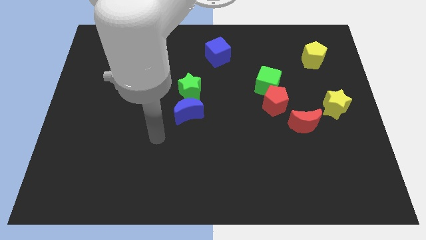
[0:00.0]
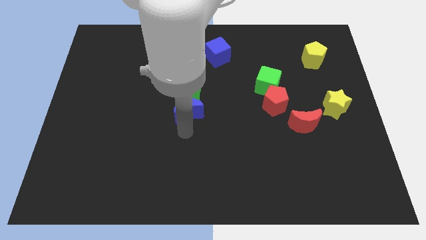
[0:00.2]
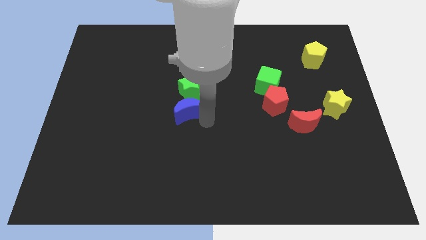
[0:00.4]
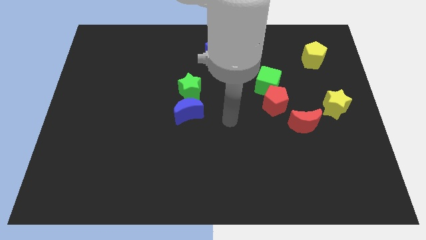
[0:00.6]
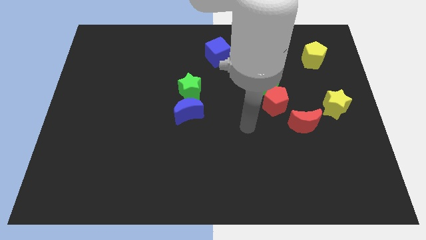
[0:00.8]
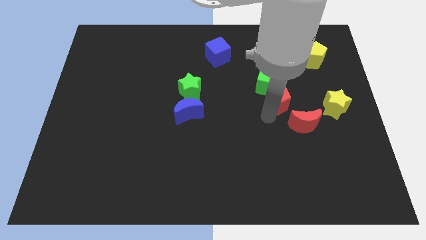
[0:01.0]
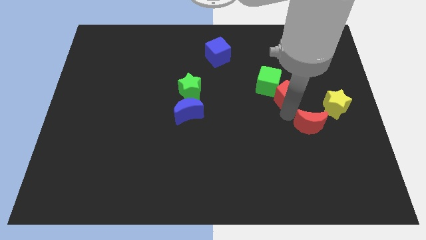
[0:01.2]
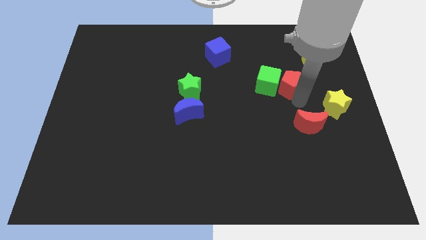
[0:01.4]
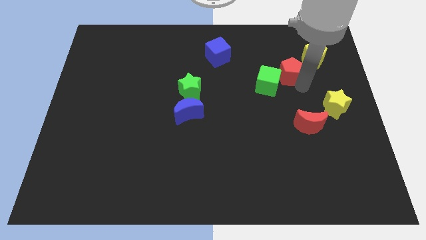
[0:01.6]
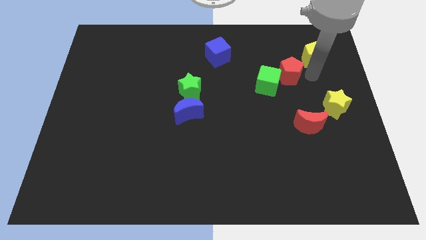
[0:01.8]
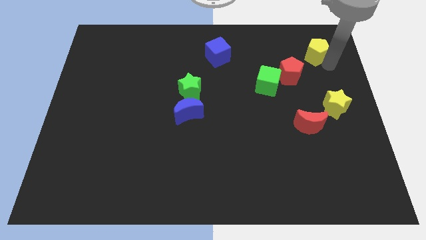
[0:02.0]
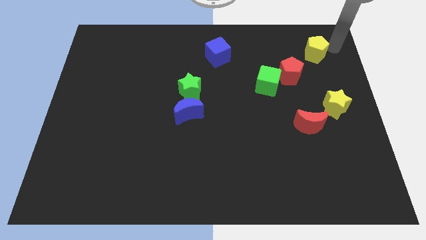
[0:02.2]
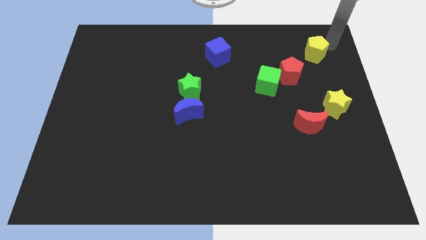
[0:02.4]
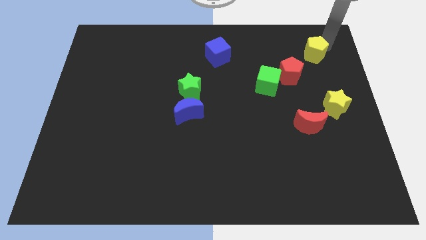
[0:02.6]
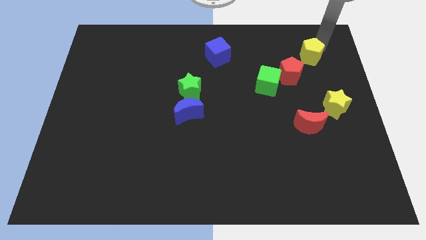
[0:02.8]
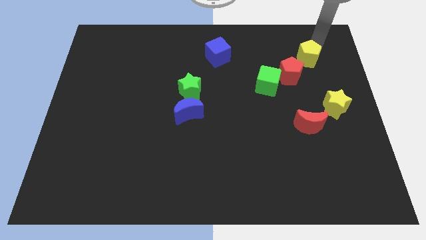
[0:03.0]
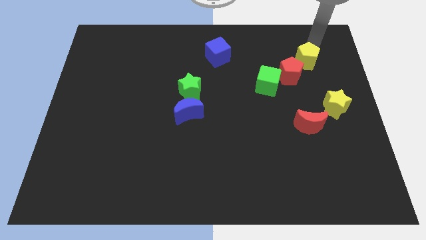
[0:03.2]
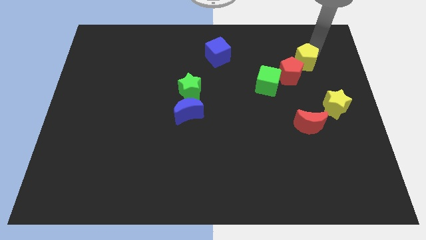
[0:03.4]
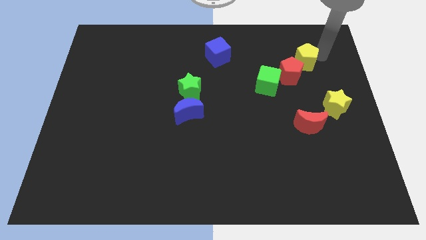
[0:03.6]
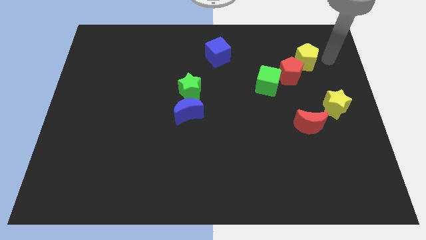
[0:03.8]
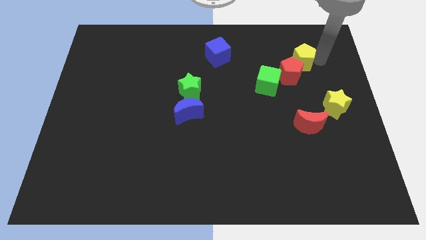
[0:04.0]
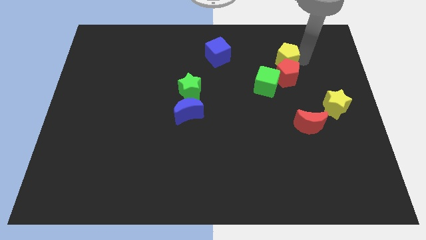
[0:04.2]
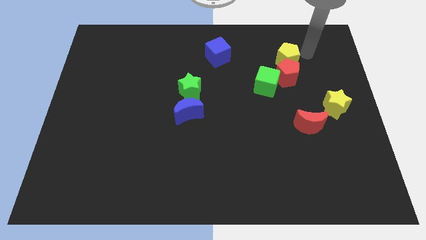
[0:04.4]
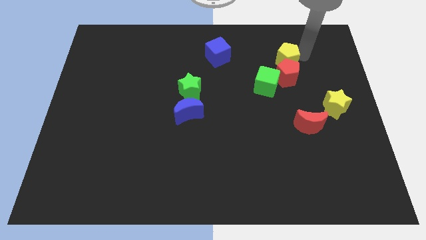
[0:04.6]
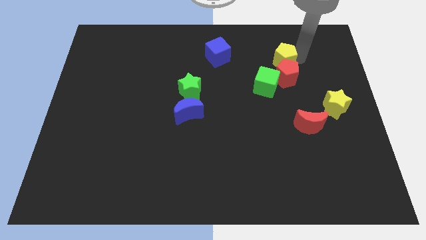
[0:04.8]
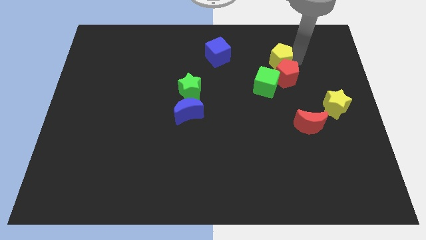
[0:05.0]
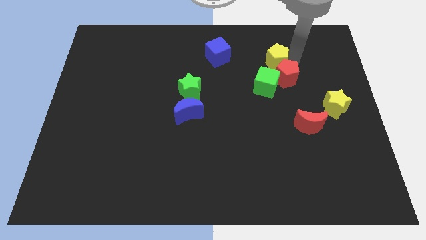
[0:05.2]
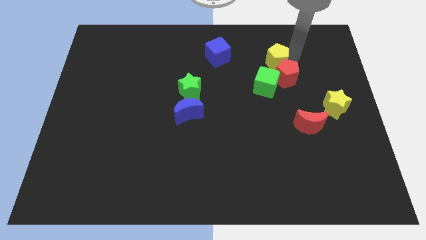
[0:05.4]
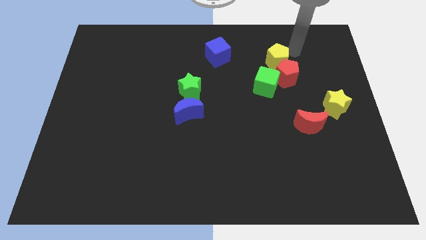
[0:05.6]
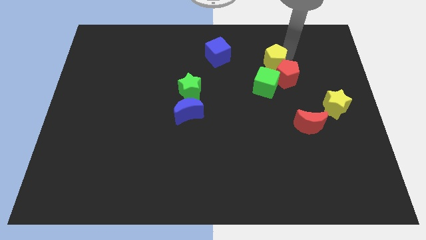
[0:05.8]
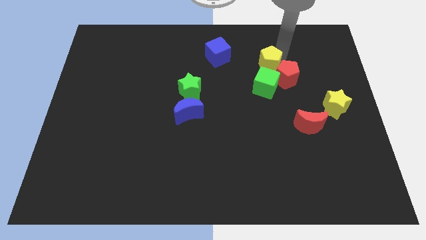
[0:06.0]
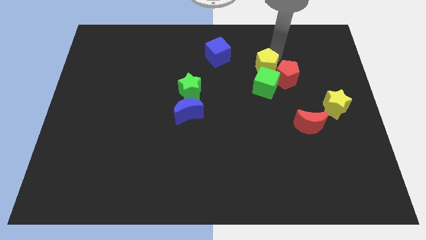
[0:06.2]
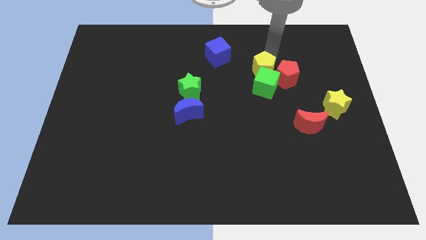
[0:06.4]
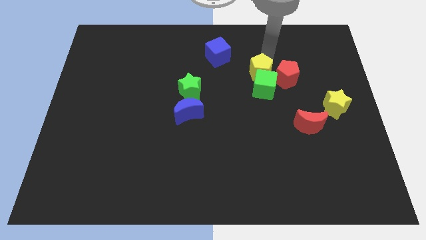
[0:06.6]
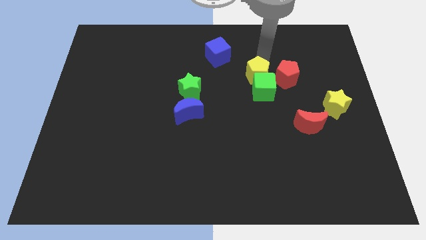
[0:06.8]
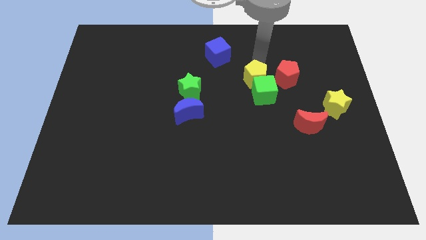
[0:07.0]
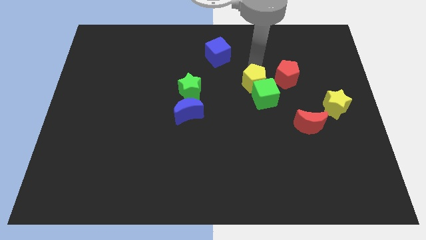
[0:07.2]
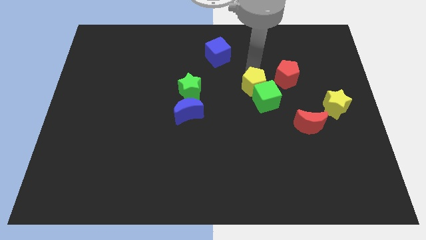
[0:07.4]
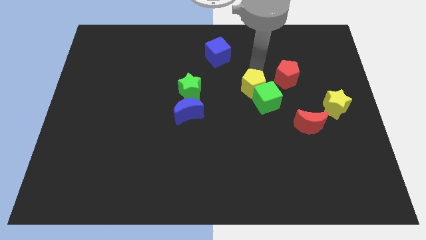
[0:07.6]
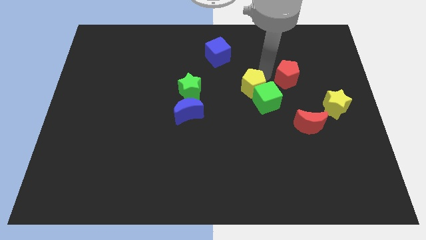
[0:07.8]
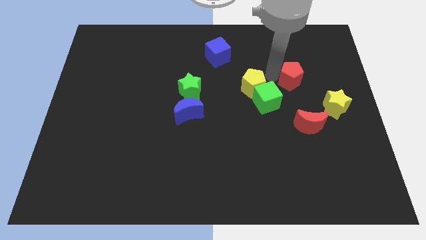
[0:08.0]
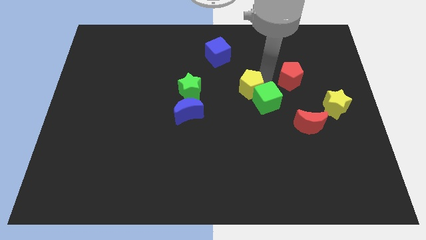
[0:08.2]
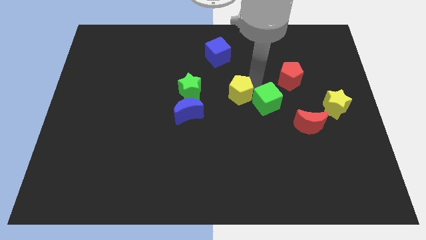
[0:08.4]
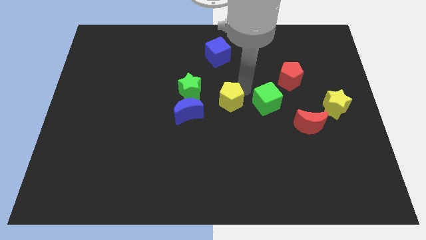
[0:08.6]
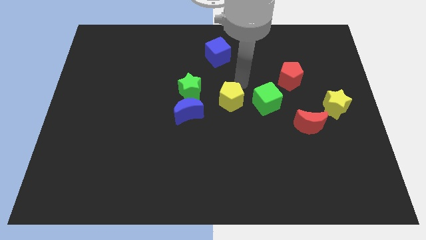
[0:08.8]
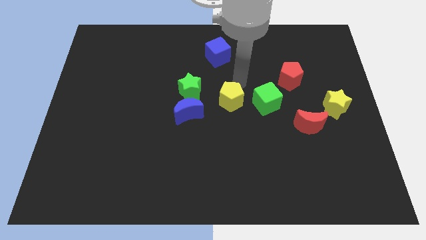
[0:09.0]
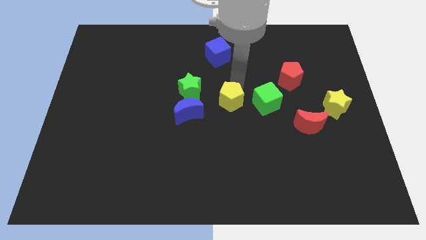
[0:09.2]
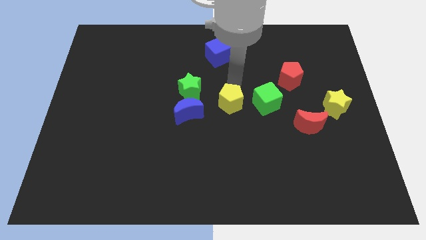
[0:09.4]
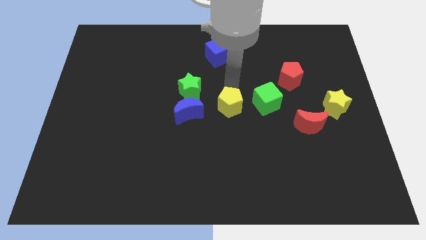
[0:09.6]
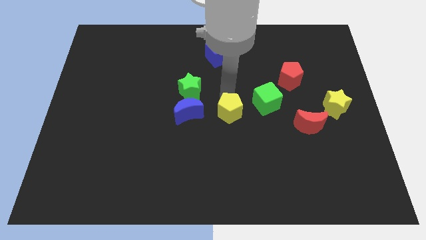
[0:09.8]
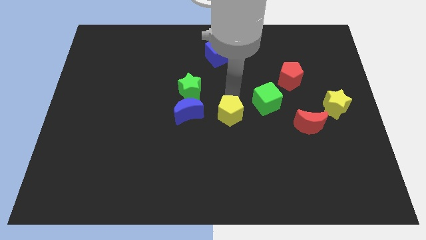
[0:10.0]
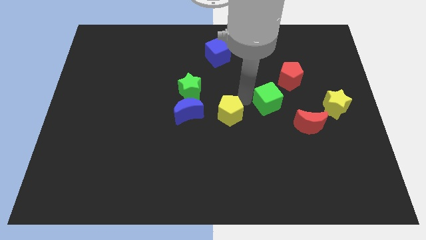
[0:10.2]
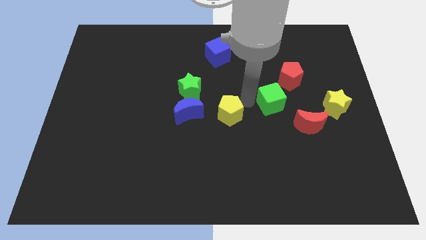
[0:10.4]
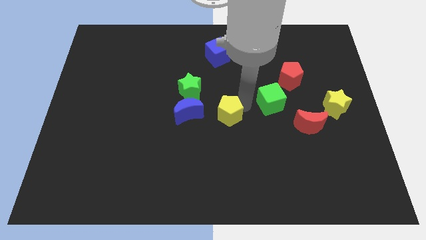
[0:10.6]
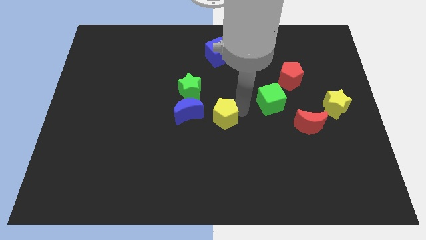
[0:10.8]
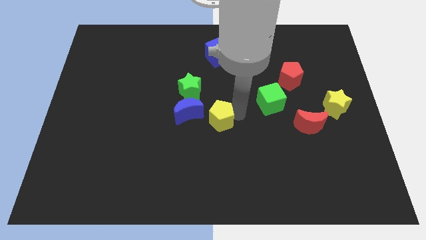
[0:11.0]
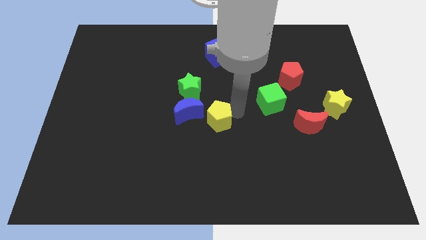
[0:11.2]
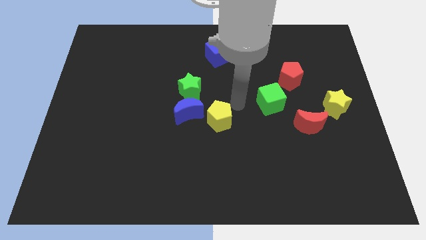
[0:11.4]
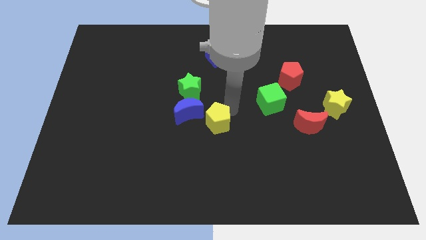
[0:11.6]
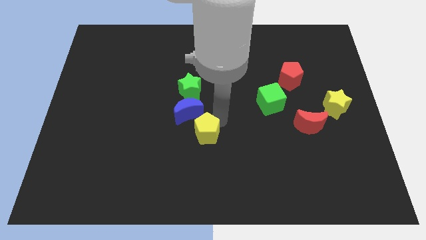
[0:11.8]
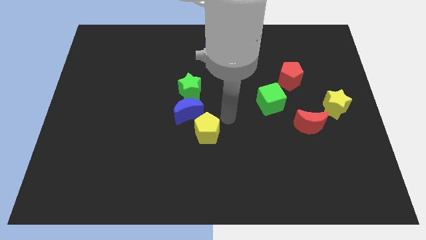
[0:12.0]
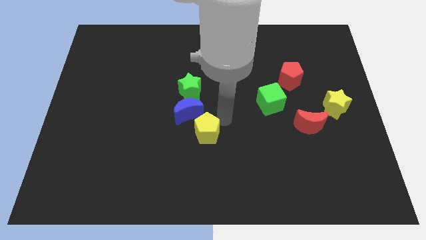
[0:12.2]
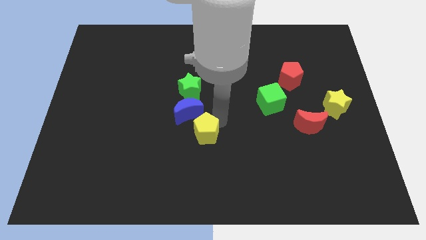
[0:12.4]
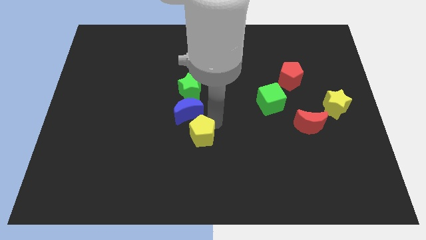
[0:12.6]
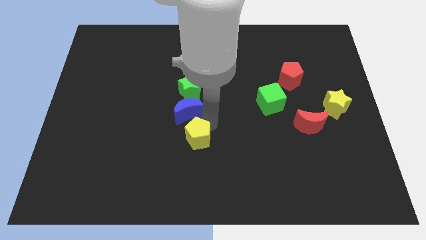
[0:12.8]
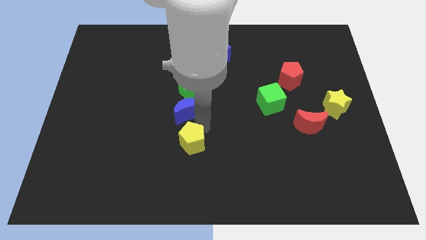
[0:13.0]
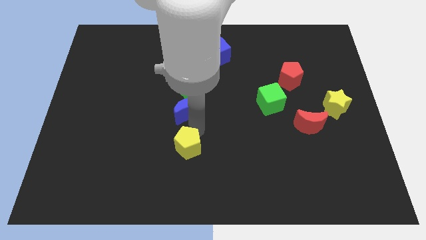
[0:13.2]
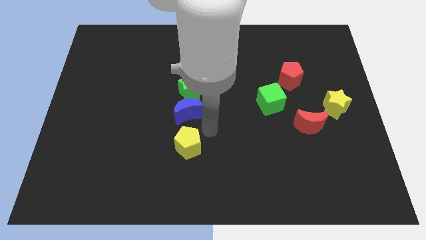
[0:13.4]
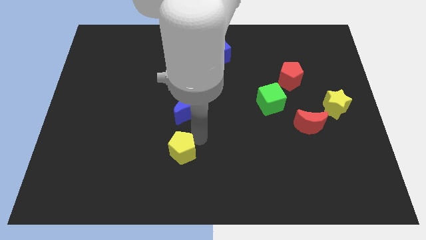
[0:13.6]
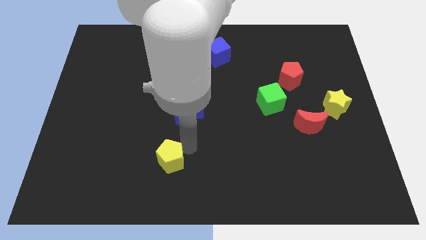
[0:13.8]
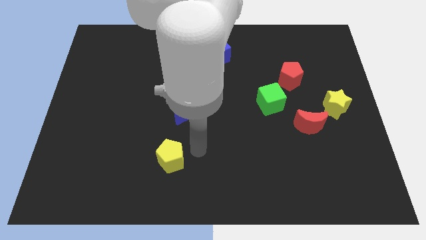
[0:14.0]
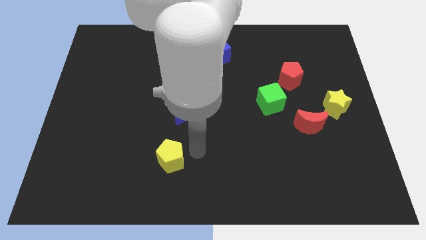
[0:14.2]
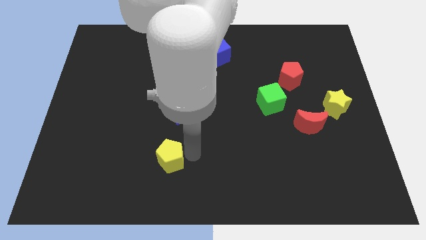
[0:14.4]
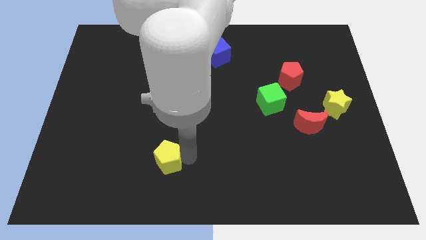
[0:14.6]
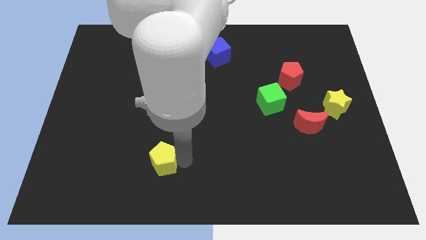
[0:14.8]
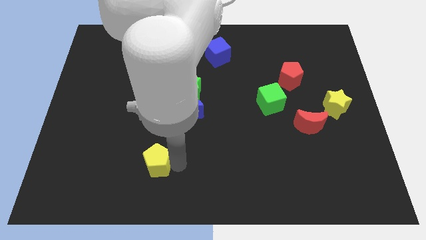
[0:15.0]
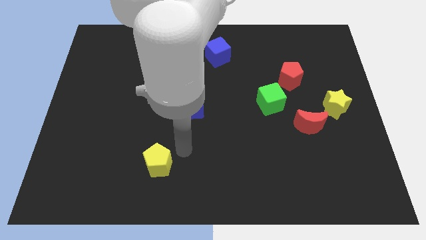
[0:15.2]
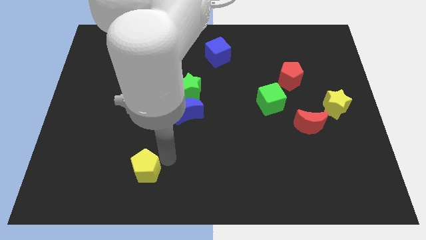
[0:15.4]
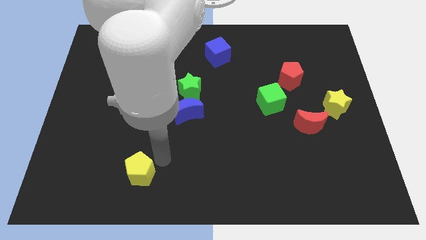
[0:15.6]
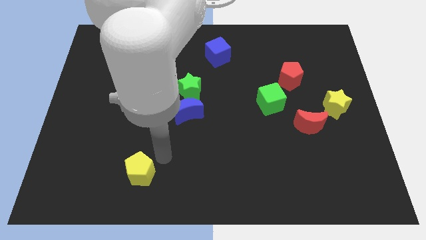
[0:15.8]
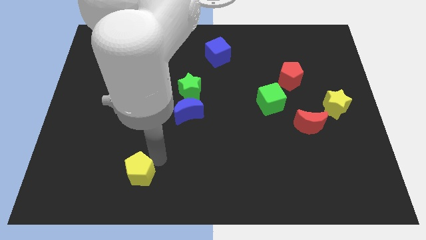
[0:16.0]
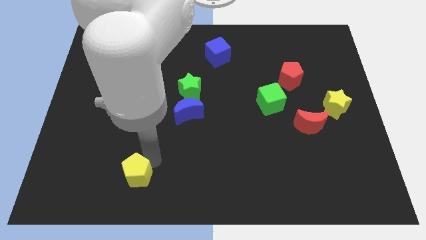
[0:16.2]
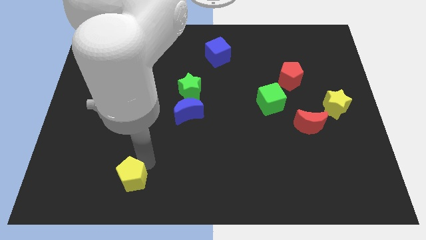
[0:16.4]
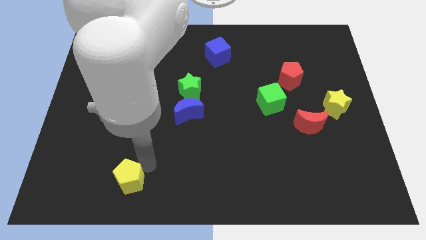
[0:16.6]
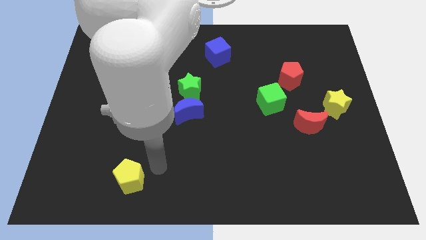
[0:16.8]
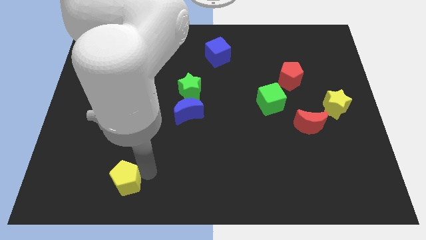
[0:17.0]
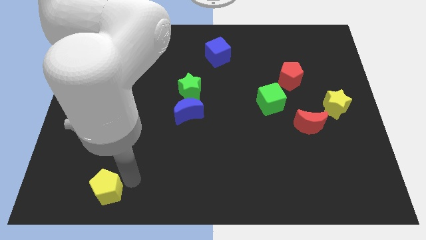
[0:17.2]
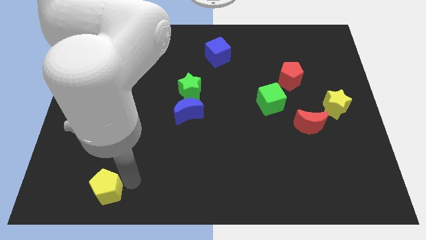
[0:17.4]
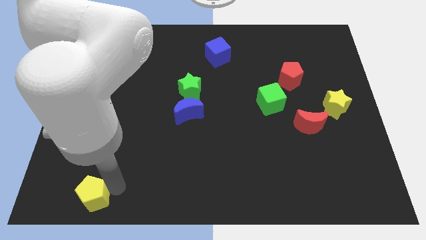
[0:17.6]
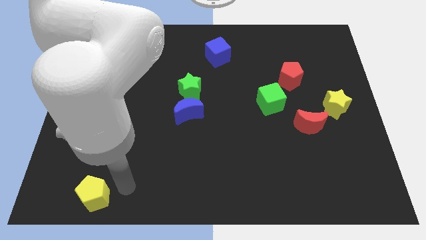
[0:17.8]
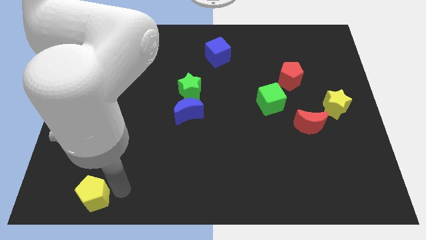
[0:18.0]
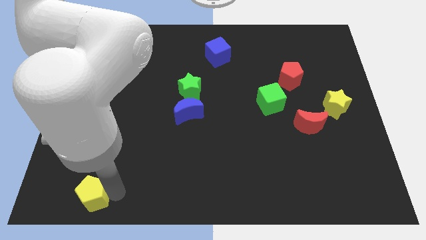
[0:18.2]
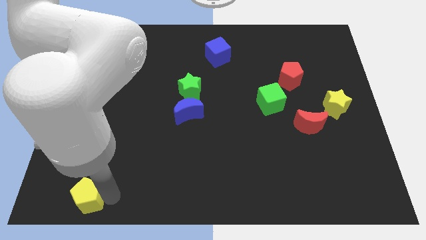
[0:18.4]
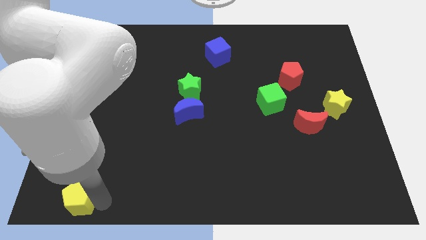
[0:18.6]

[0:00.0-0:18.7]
move the yellow pentagon to the bottom left of the board
